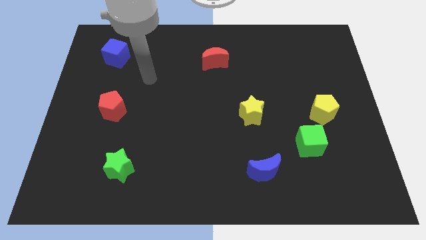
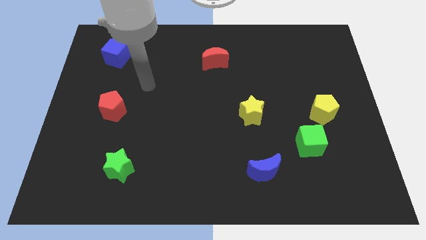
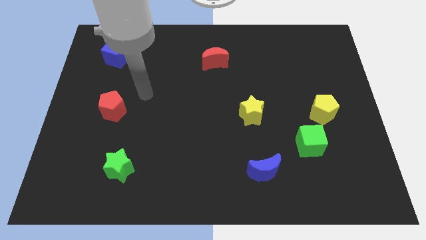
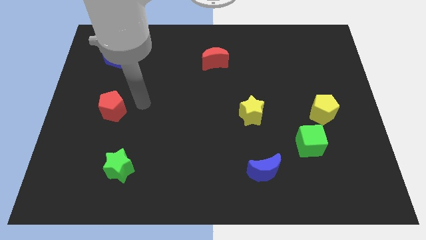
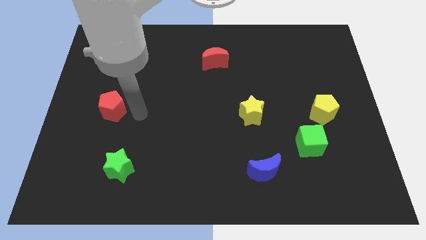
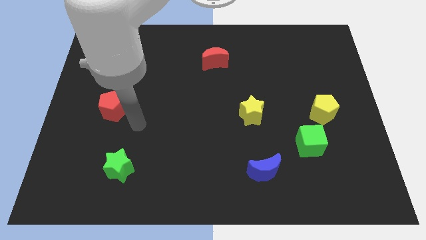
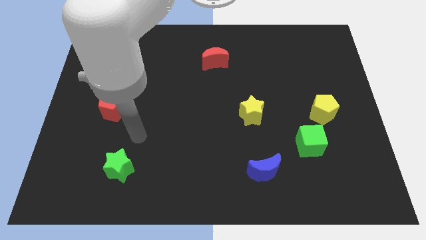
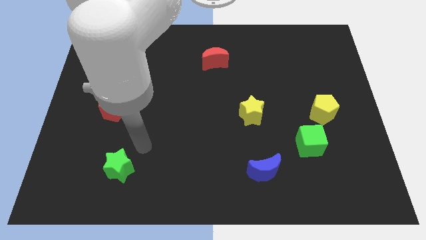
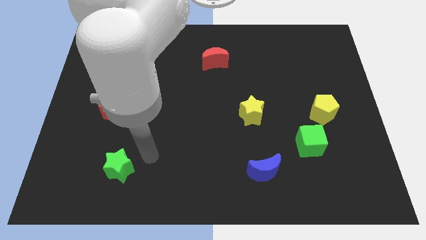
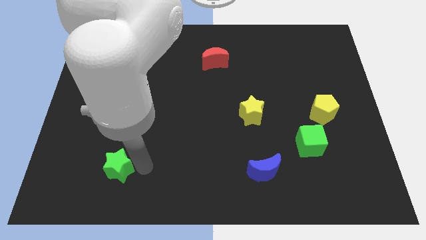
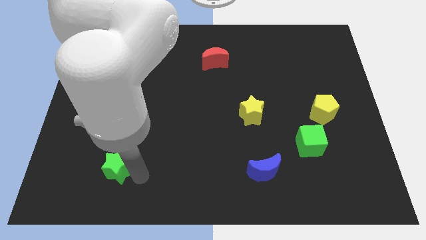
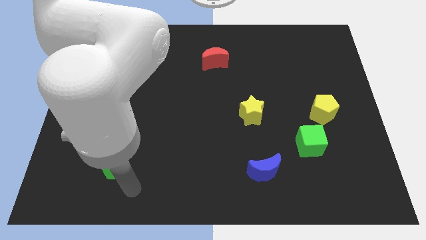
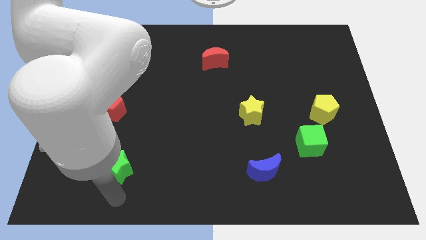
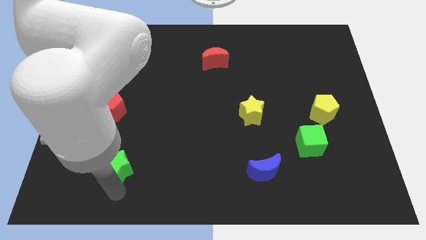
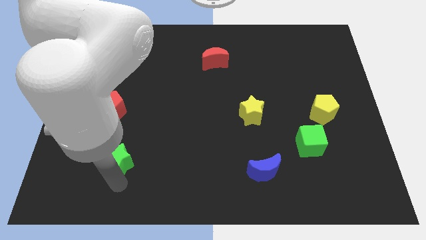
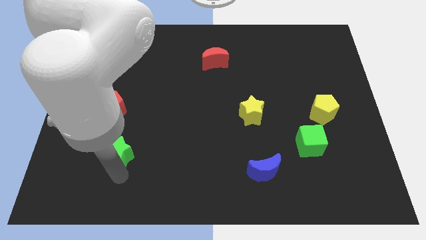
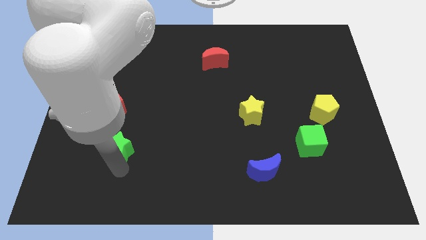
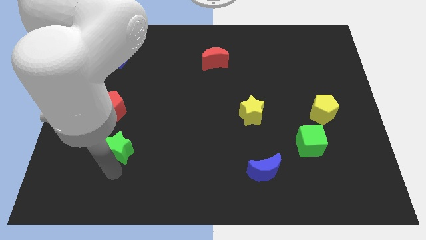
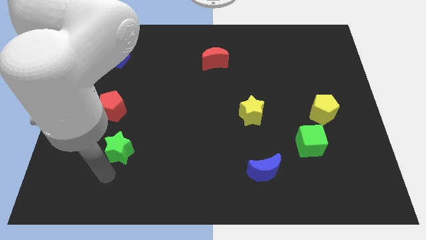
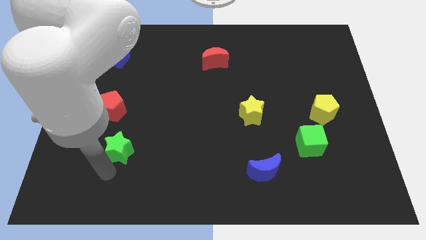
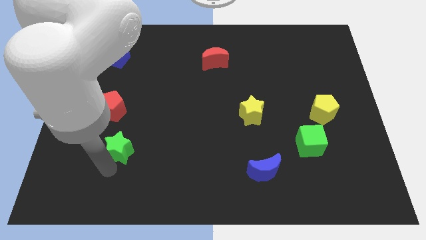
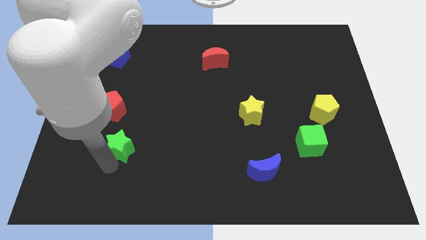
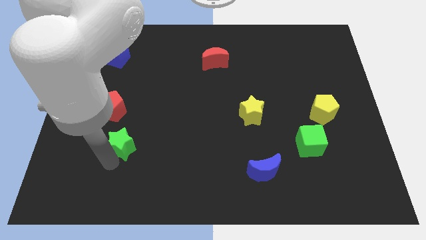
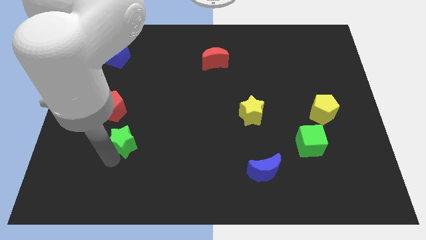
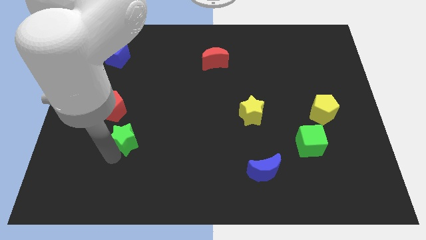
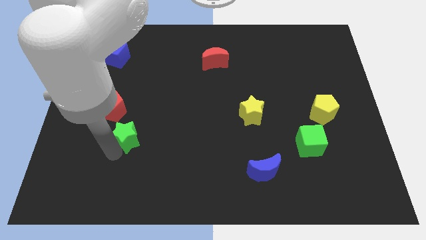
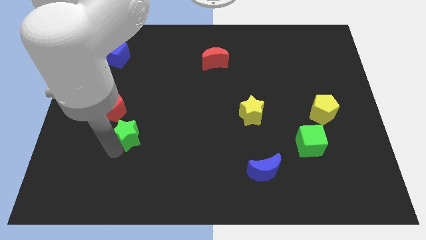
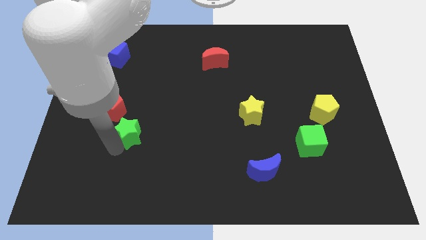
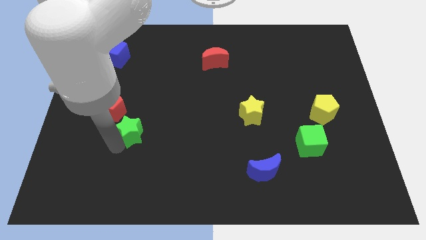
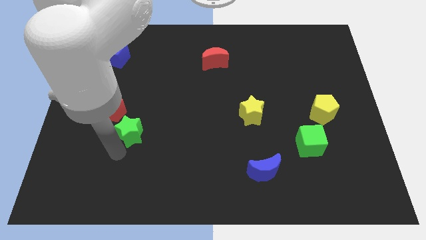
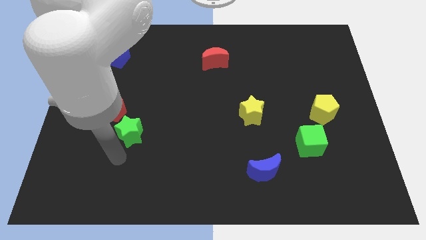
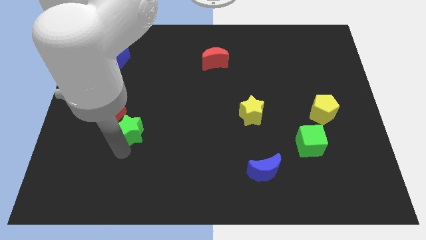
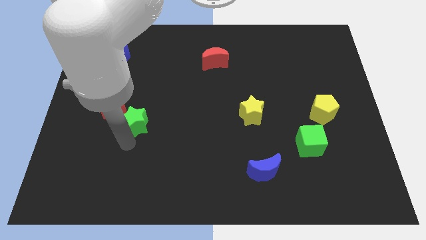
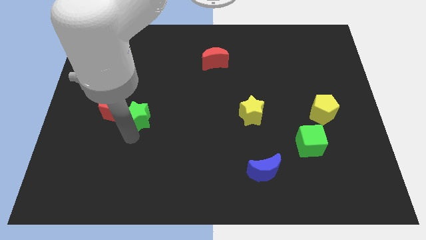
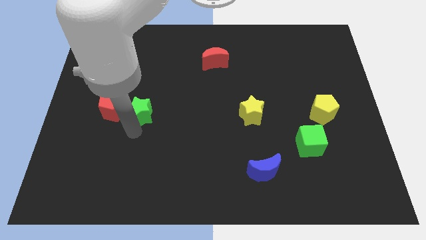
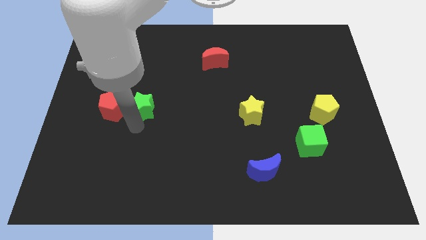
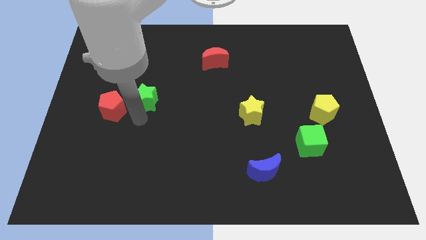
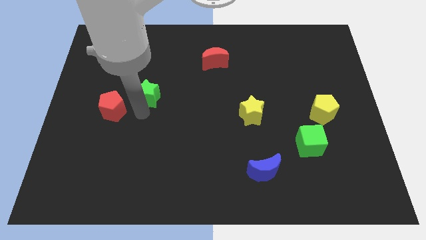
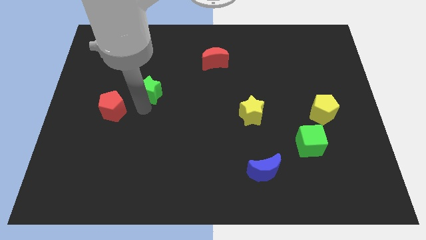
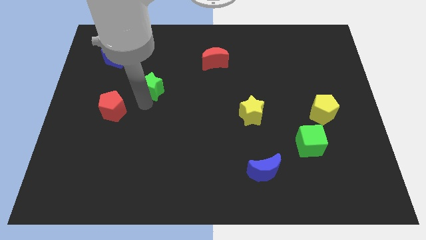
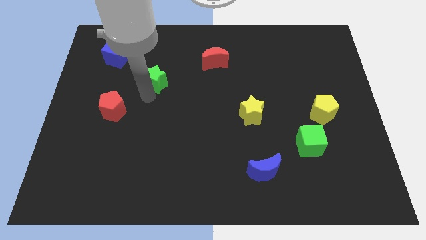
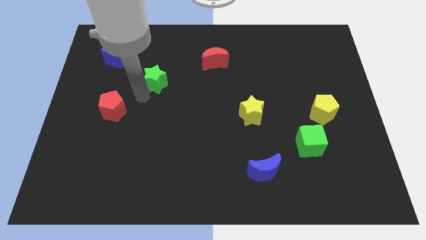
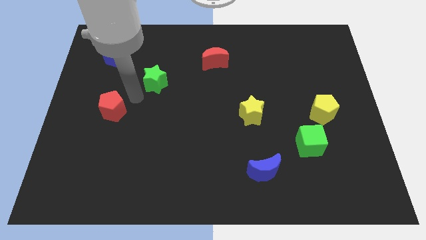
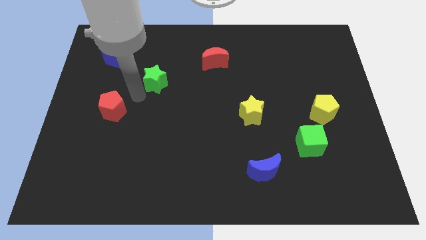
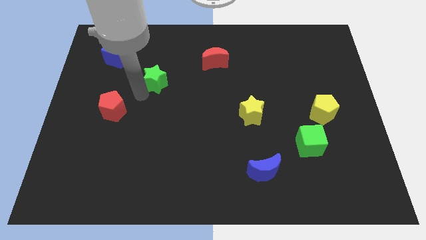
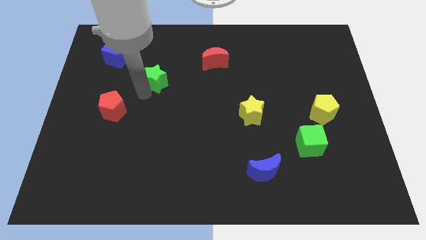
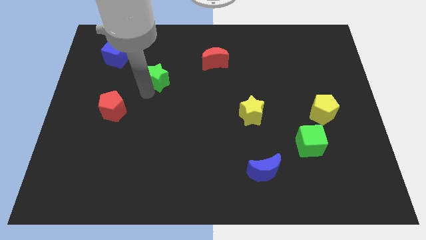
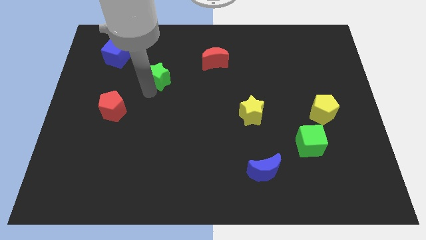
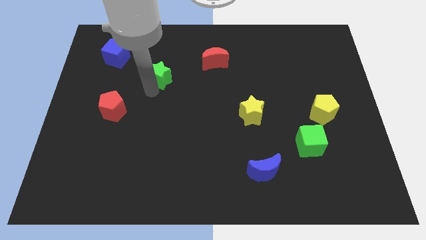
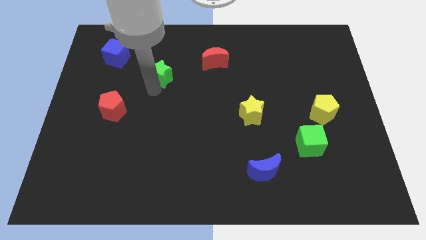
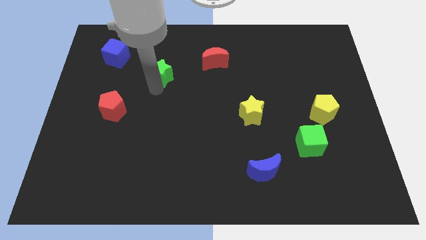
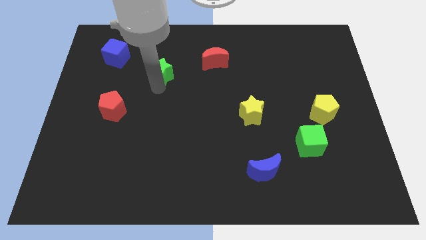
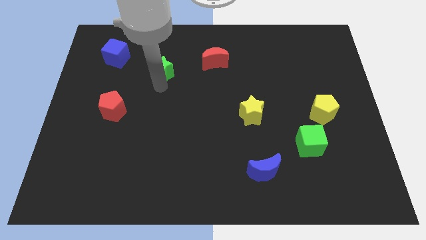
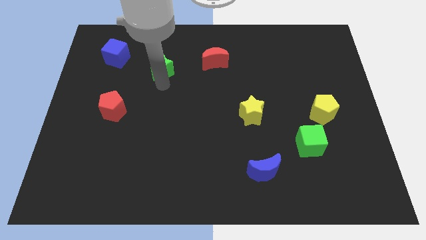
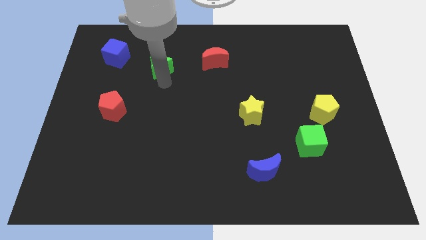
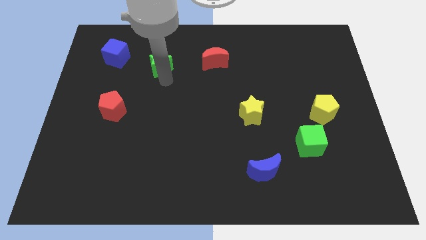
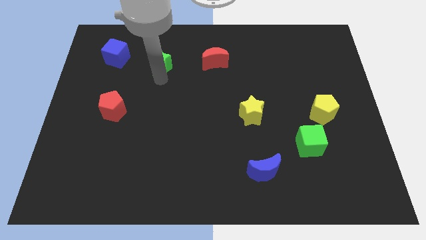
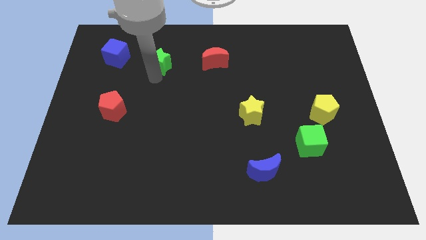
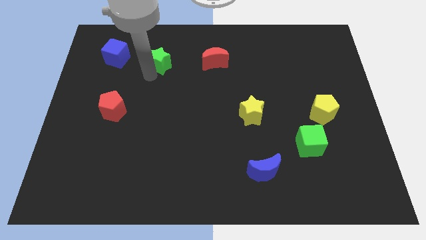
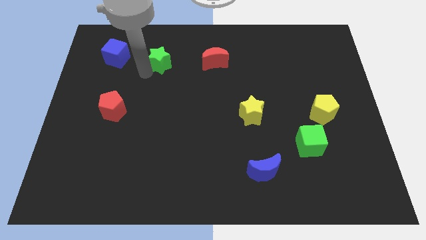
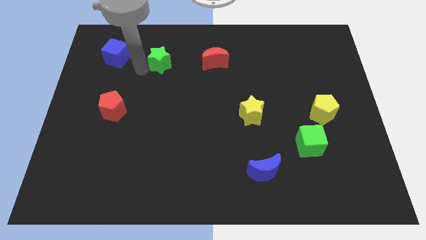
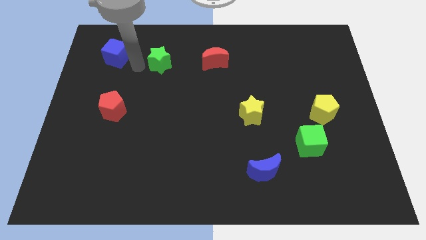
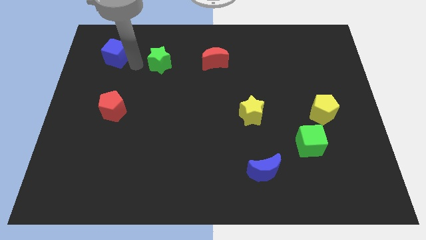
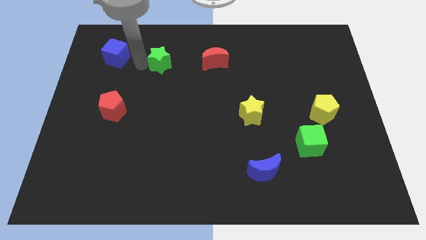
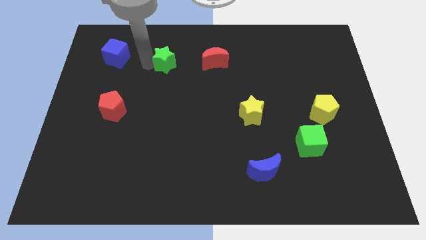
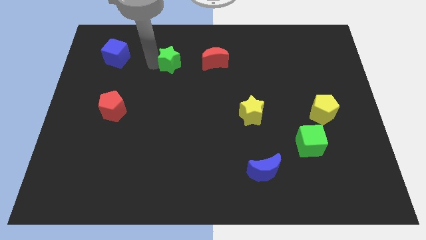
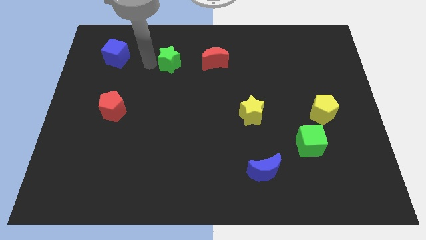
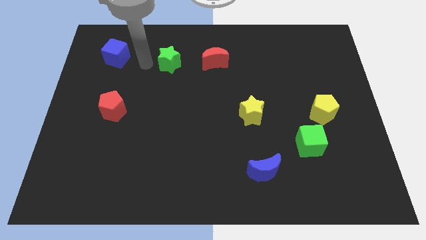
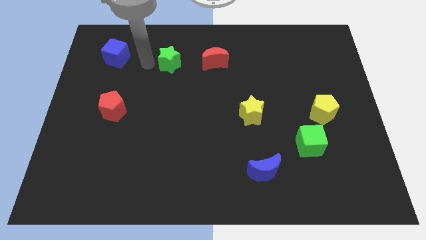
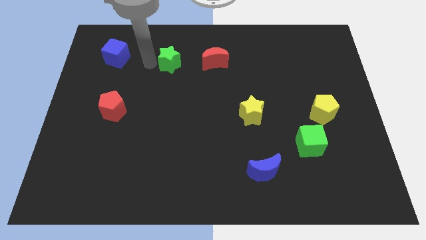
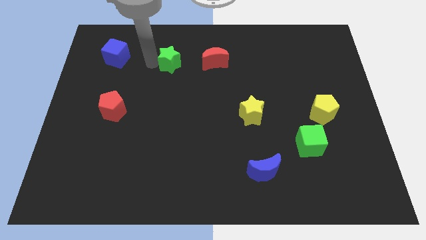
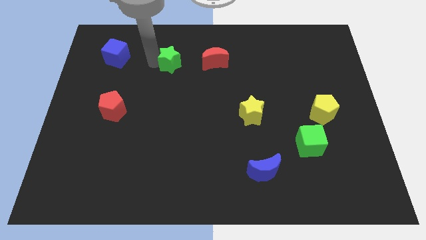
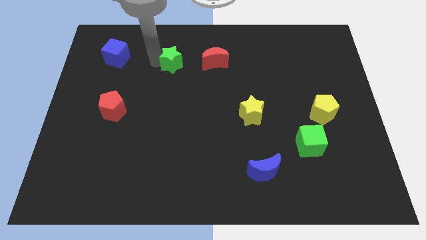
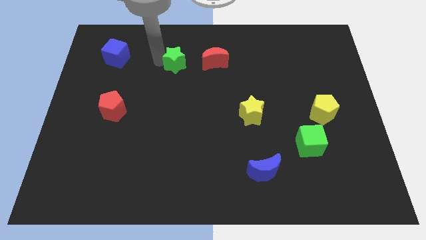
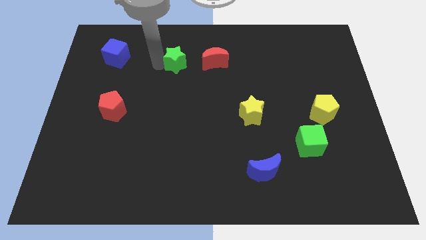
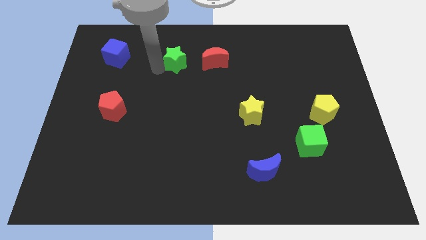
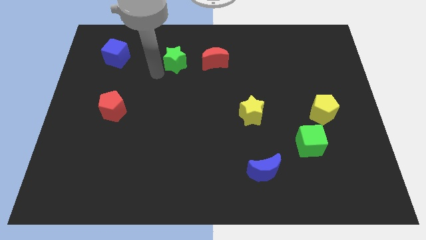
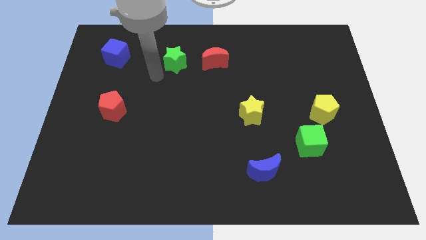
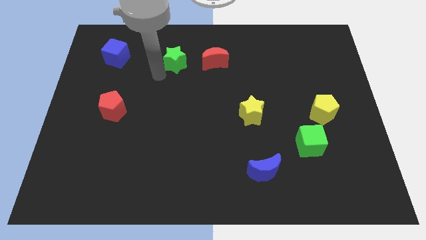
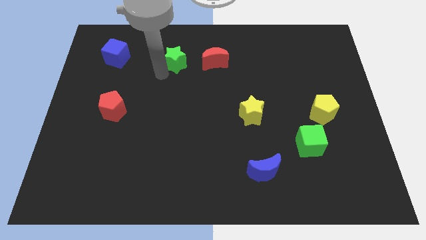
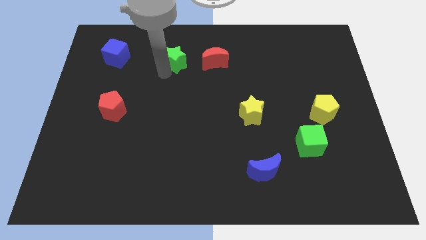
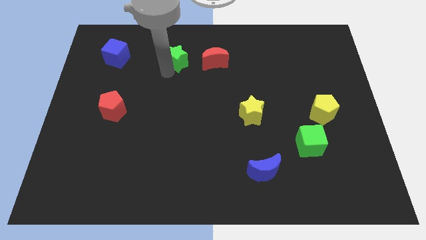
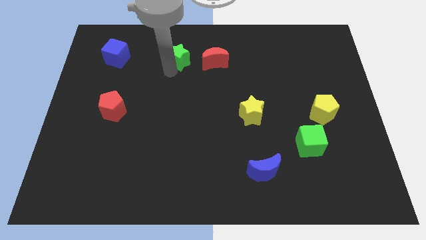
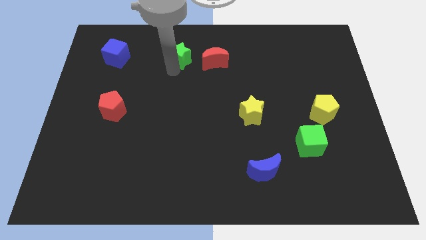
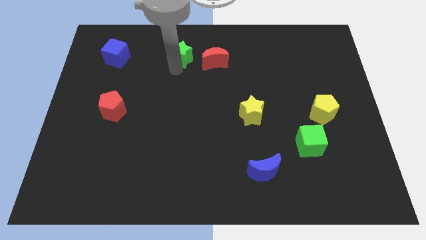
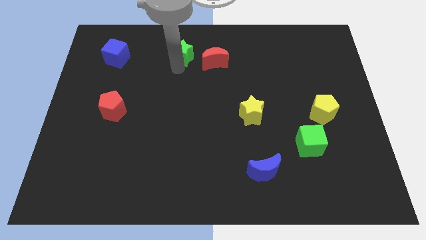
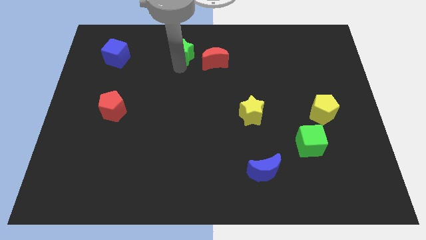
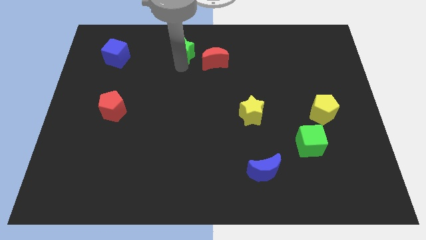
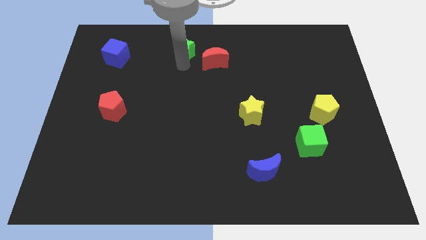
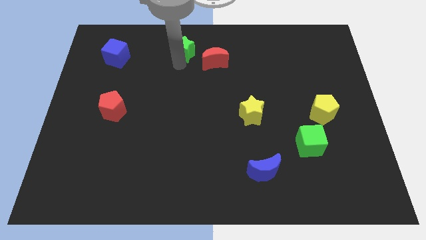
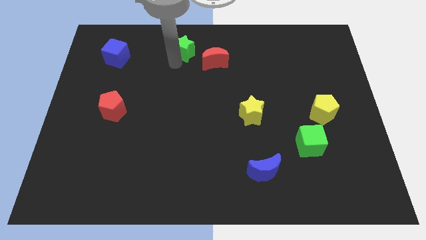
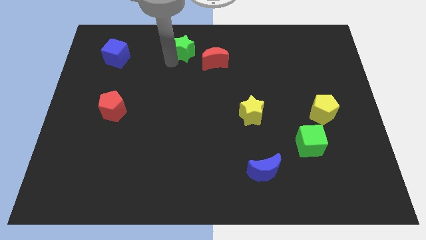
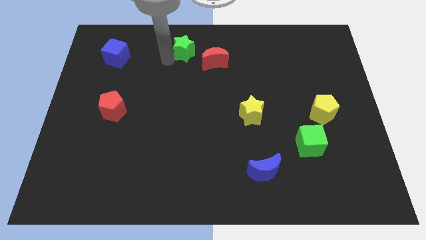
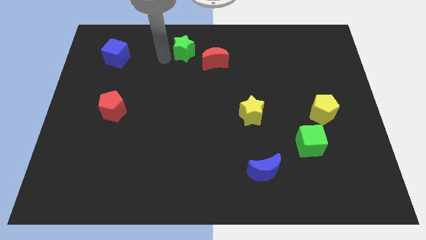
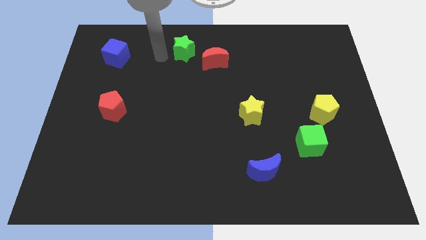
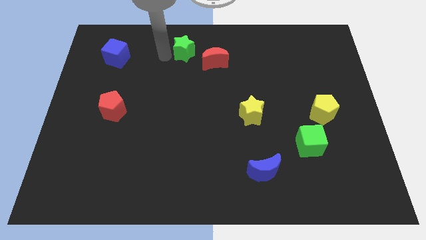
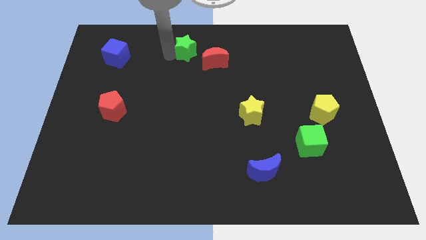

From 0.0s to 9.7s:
put the green star to the top
